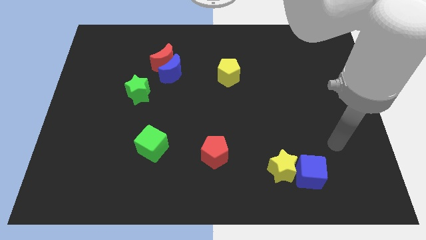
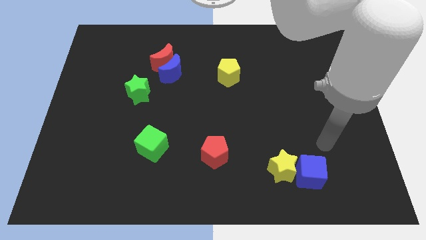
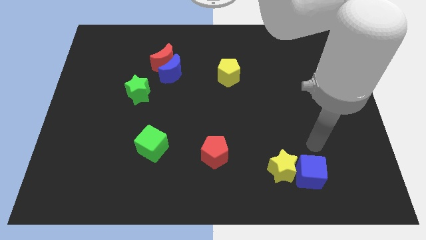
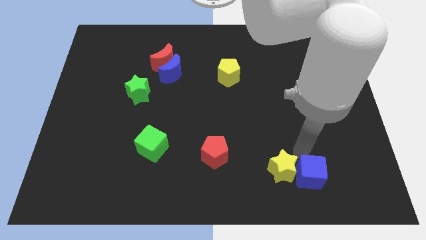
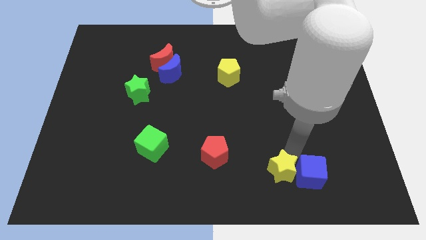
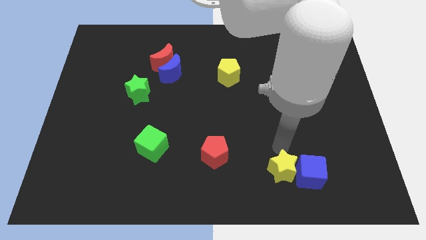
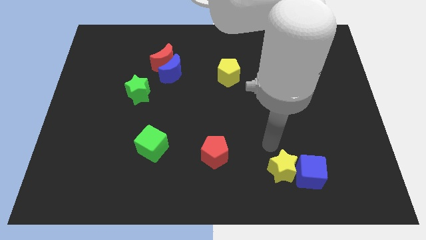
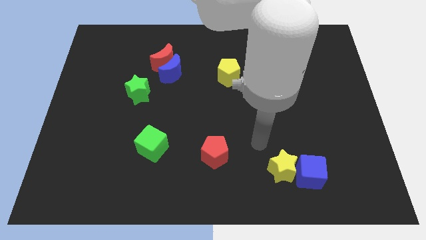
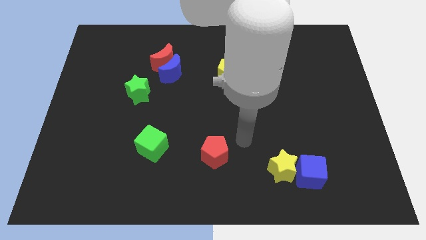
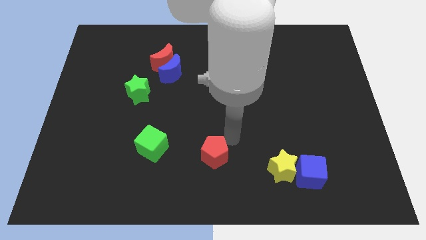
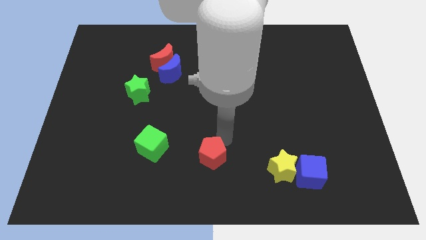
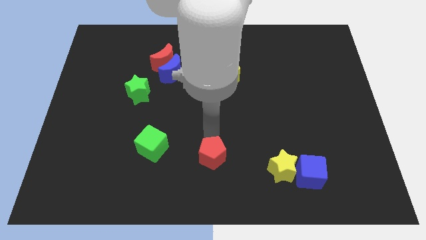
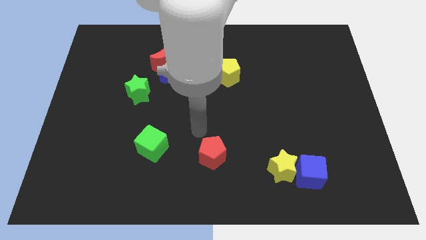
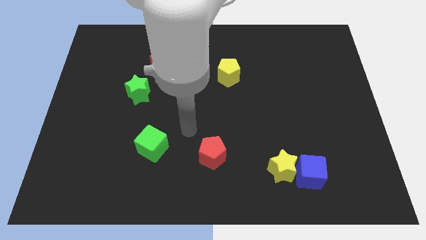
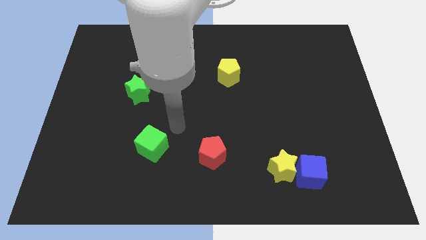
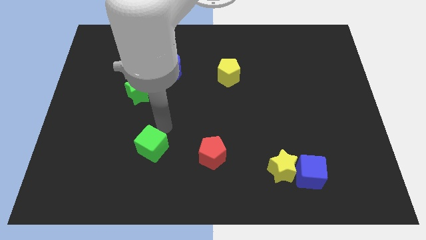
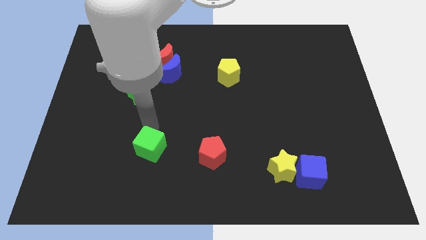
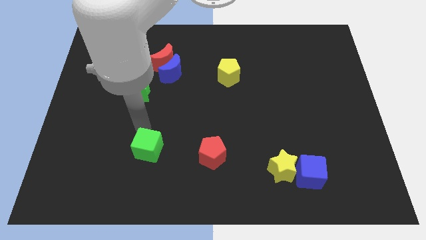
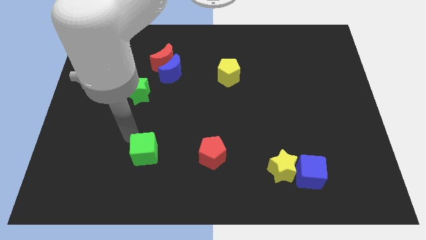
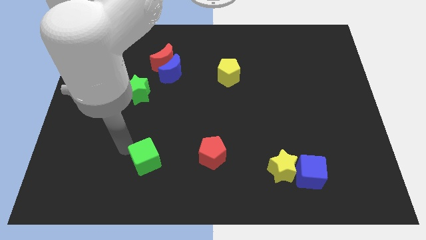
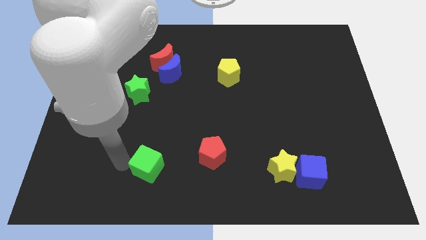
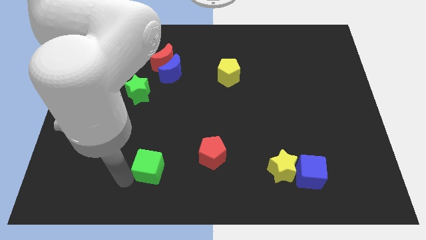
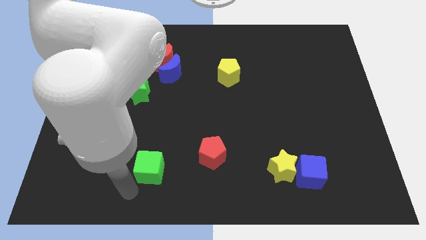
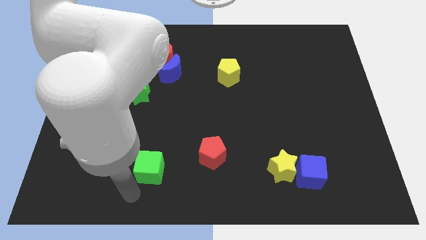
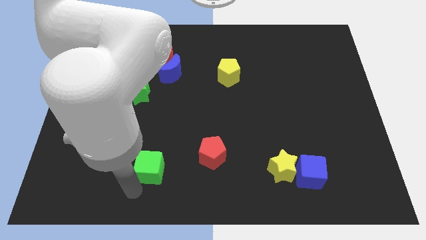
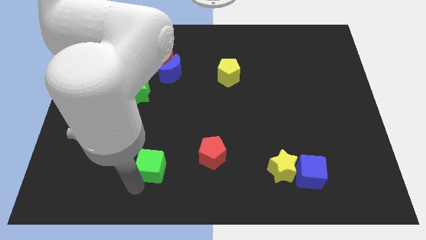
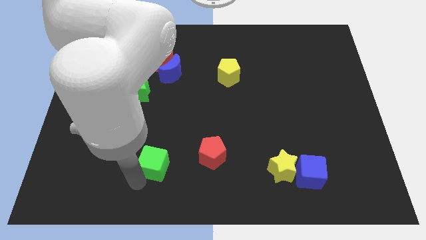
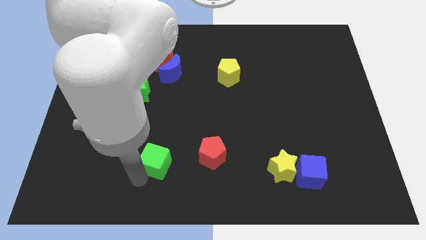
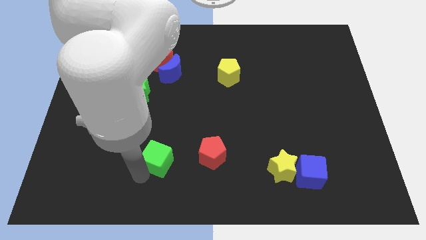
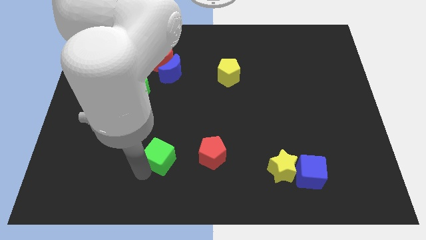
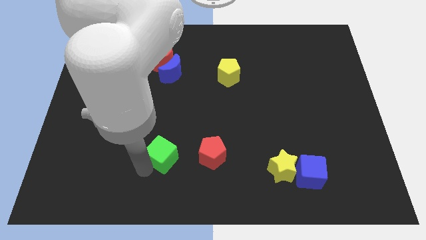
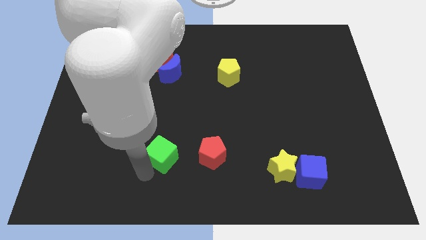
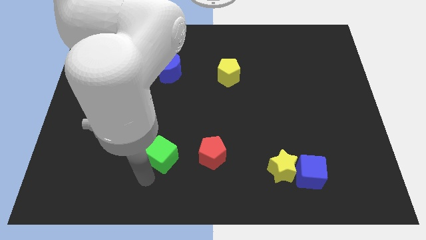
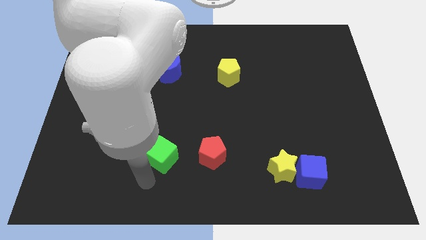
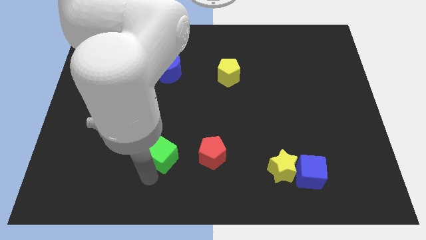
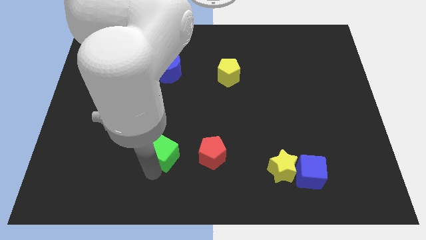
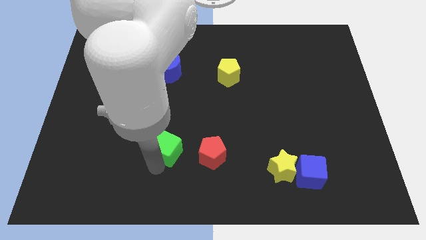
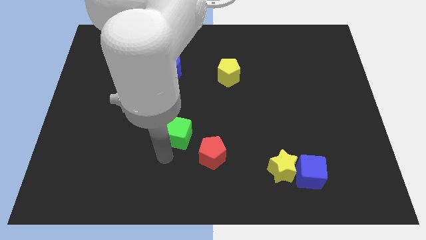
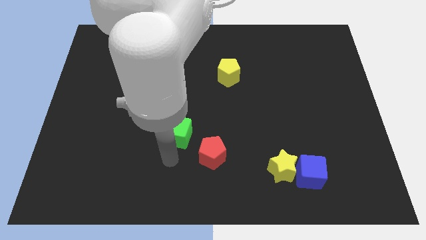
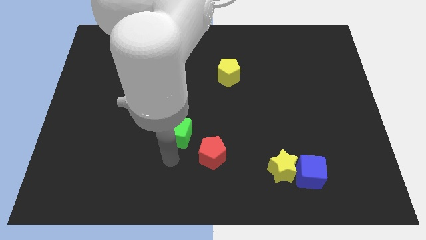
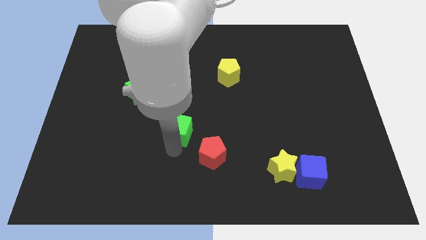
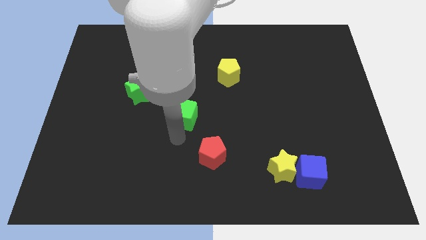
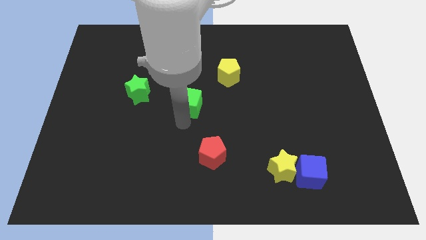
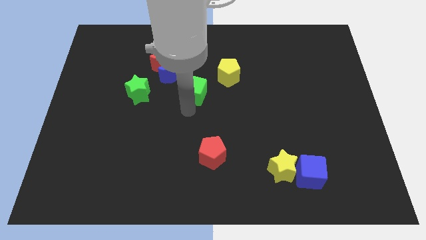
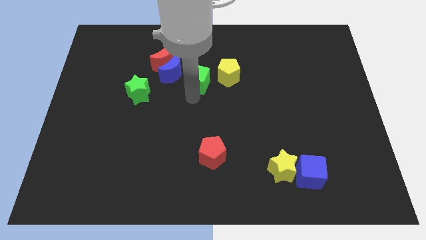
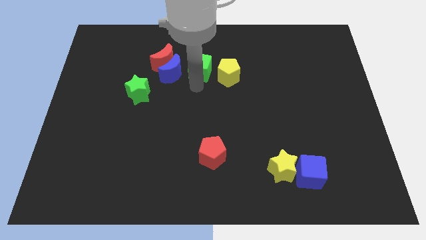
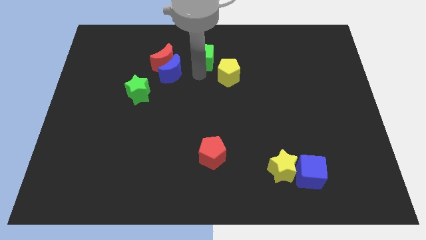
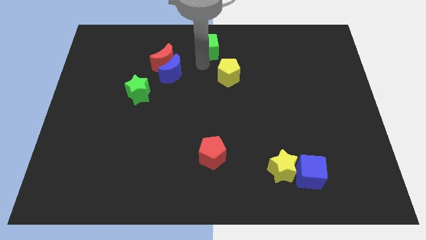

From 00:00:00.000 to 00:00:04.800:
slide the green cube to the top side

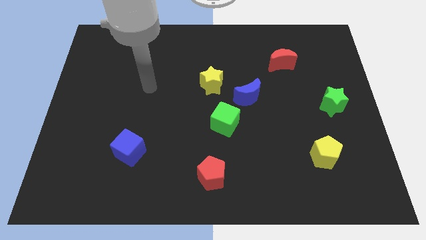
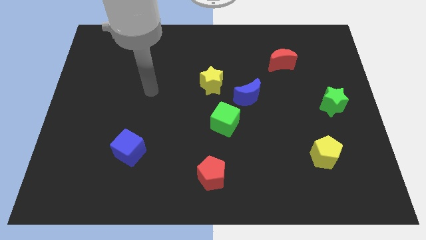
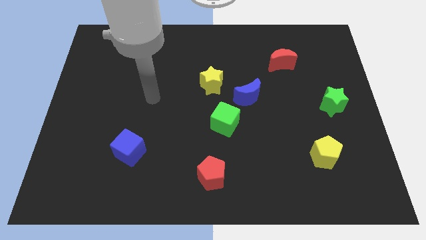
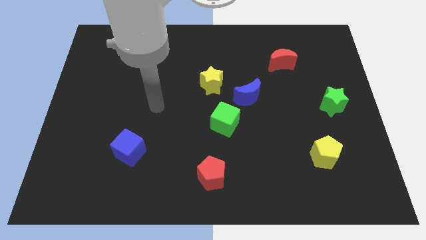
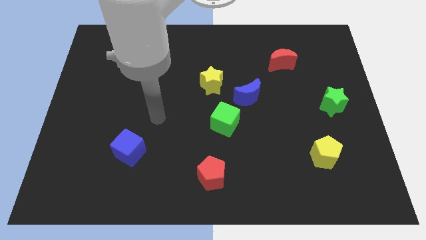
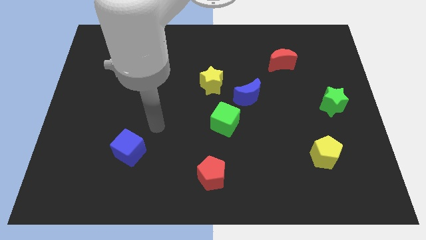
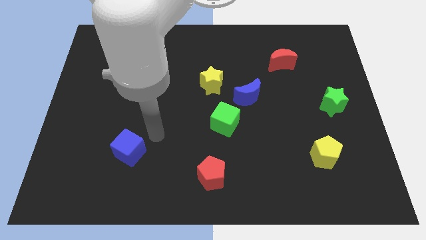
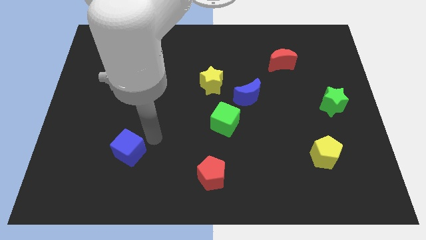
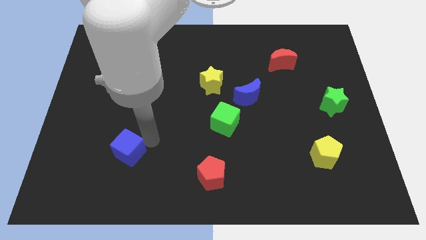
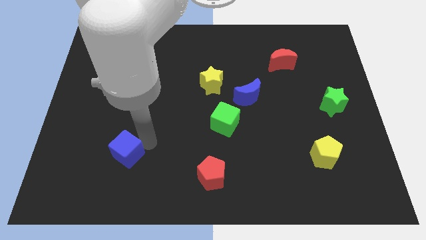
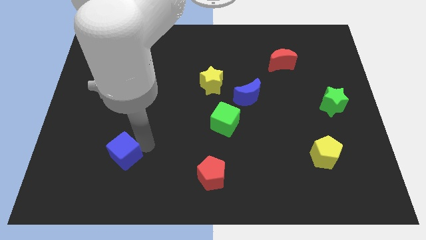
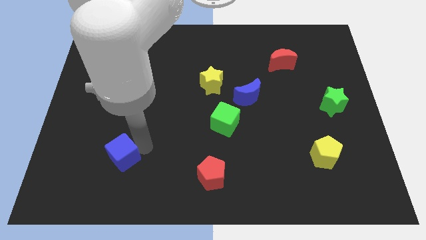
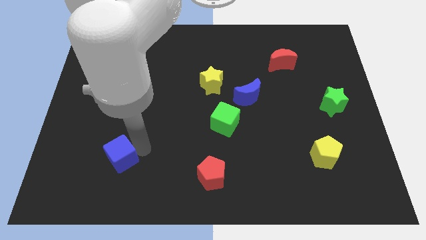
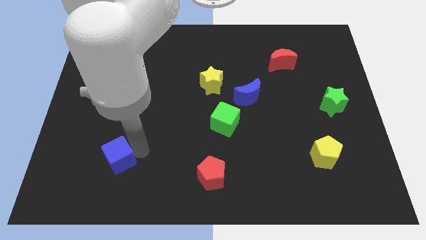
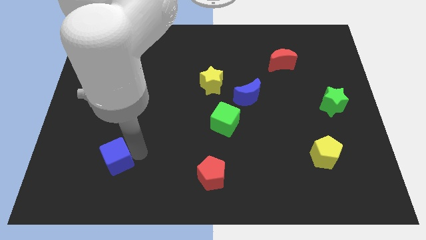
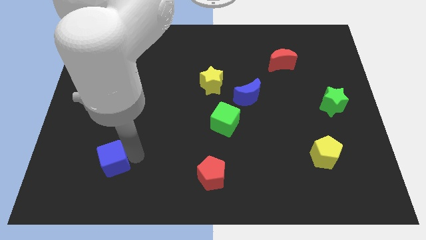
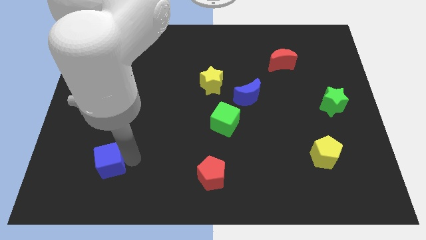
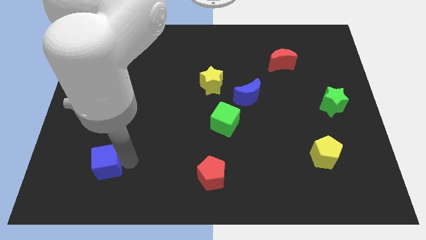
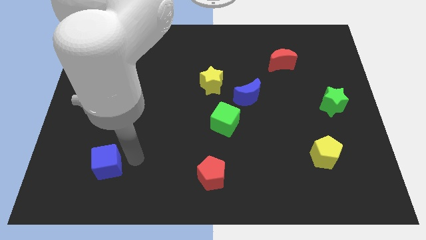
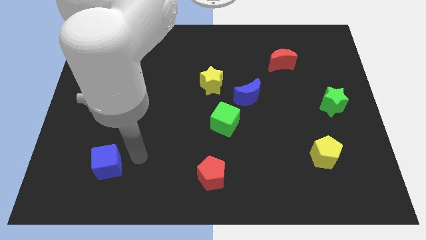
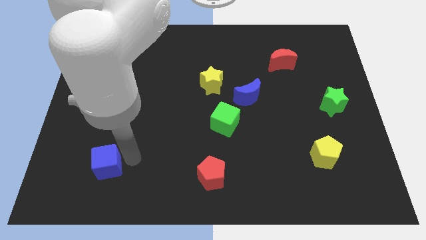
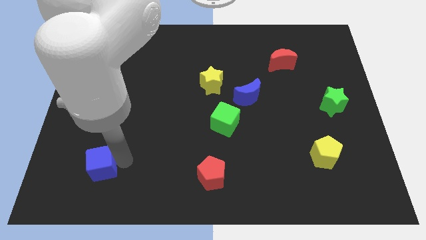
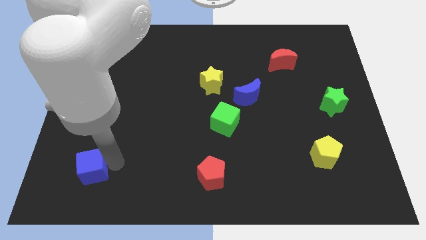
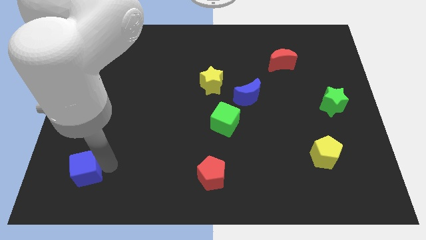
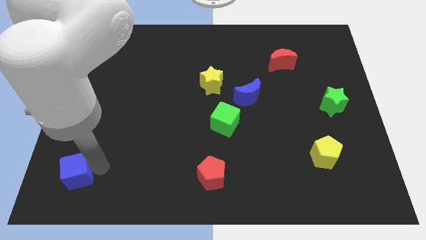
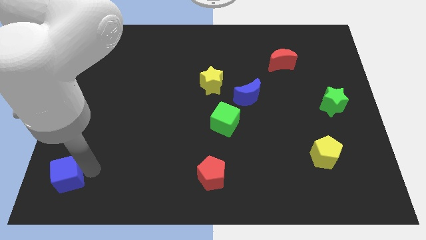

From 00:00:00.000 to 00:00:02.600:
move the blue cube to the bottom left of the board

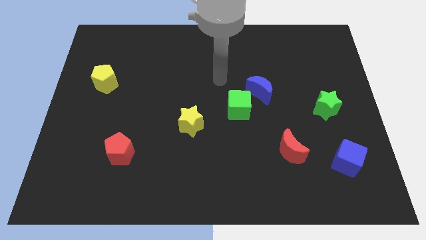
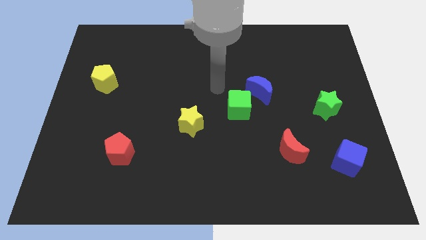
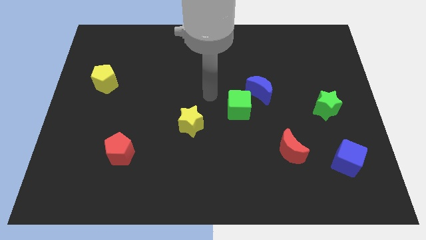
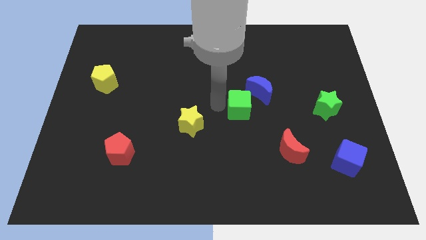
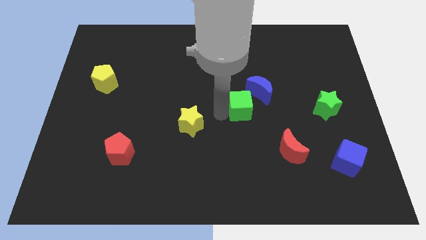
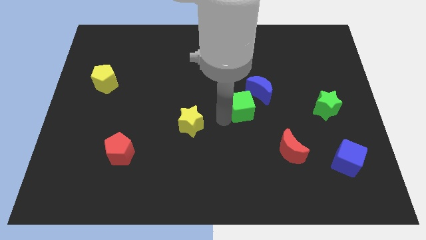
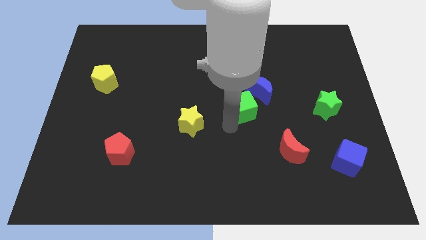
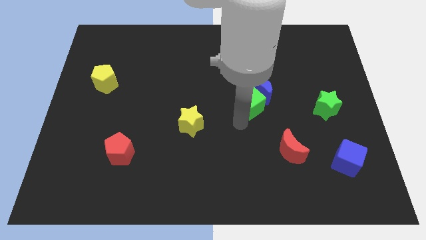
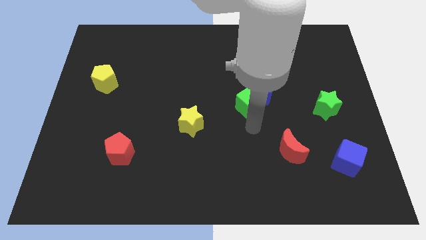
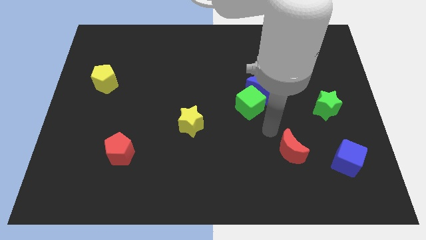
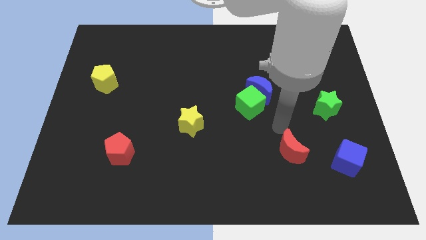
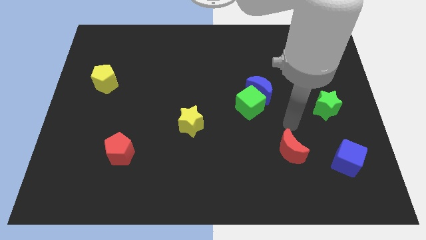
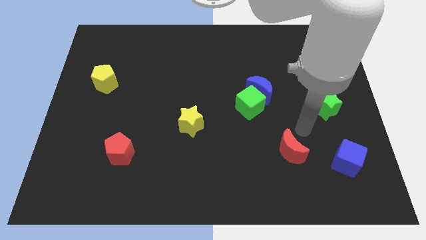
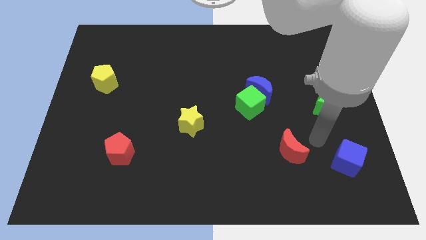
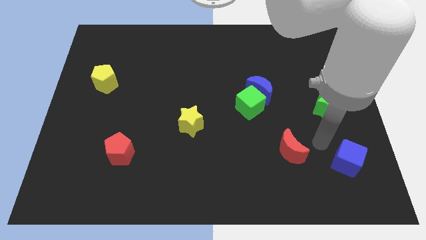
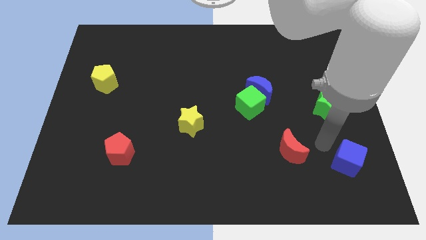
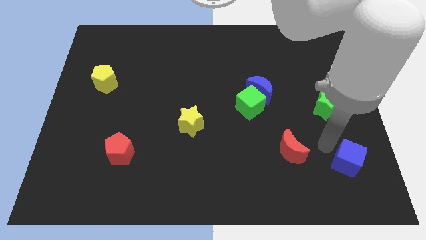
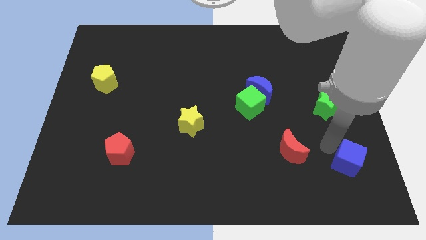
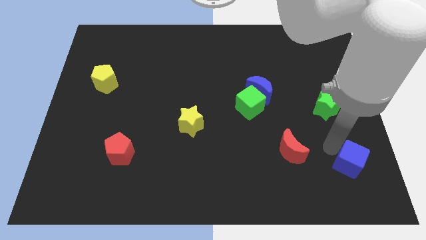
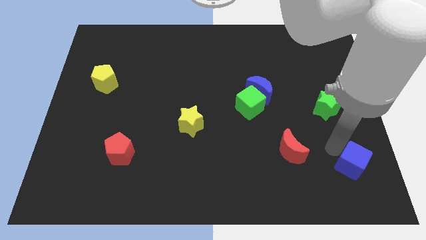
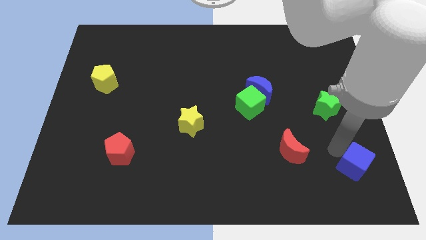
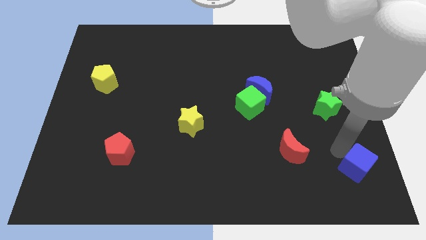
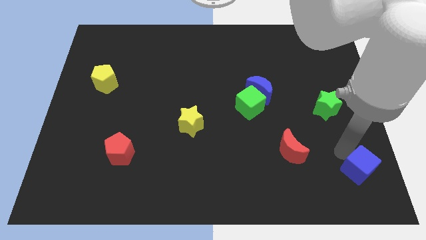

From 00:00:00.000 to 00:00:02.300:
put the blue cube to the bottom right
